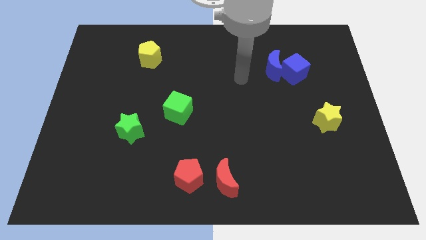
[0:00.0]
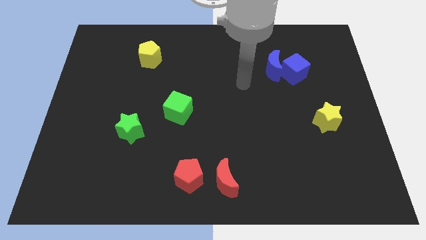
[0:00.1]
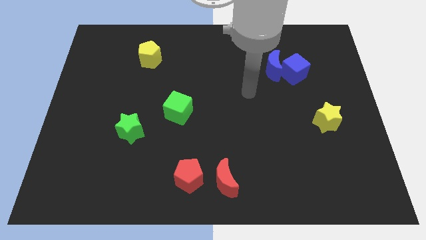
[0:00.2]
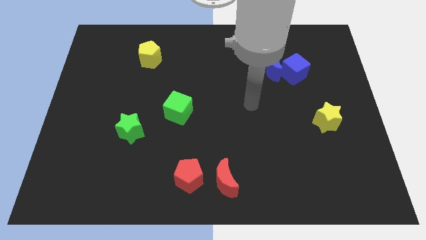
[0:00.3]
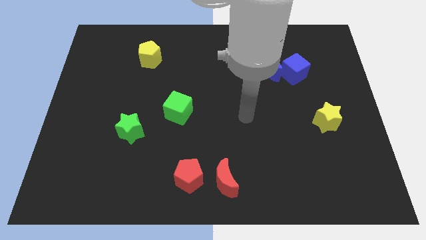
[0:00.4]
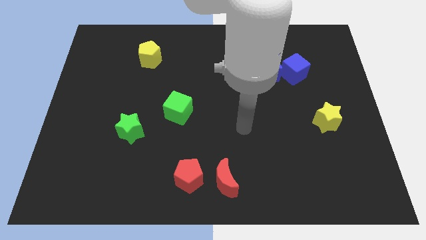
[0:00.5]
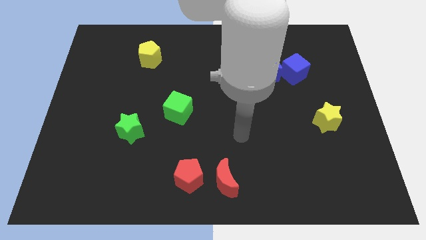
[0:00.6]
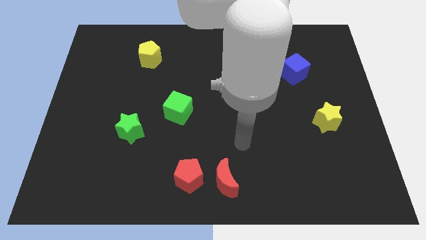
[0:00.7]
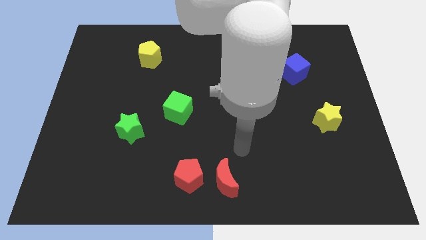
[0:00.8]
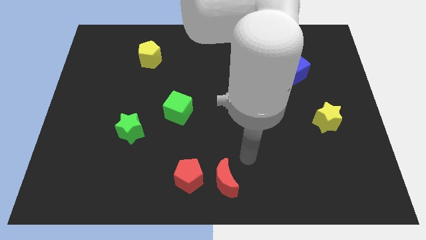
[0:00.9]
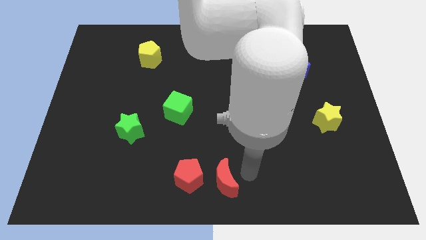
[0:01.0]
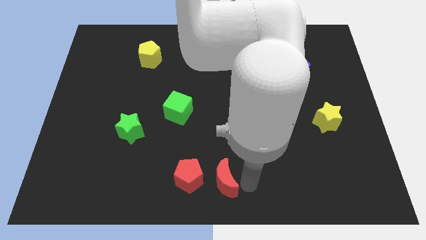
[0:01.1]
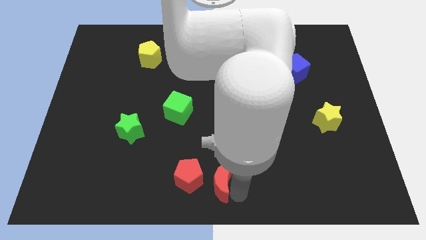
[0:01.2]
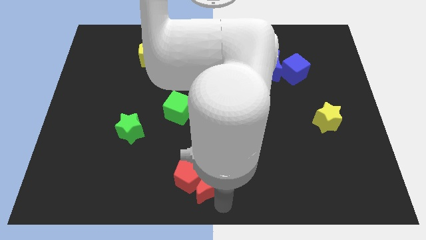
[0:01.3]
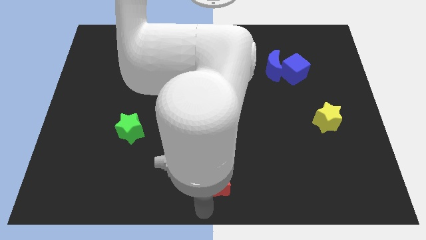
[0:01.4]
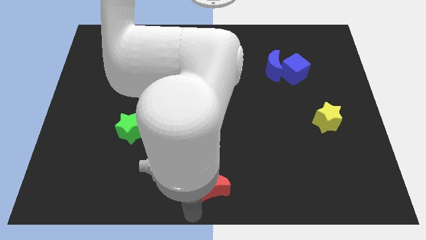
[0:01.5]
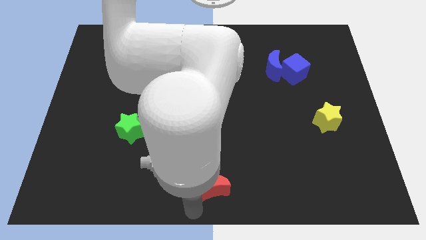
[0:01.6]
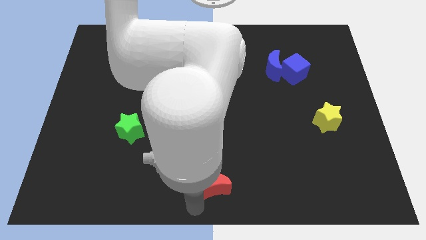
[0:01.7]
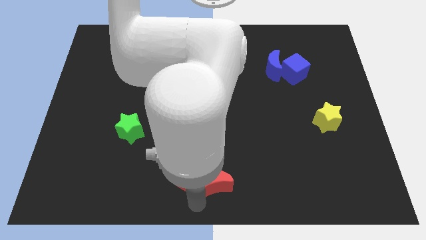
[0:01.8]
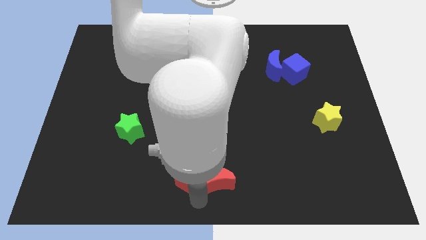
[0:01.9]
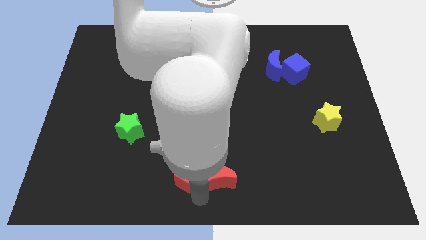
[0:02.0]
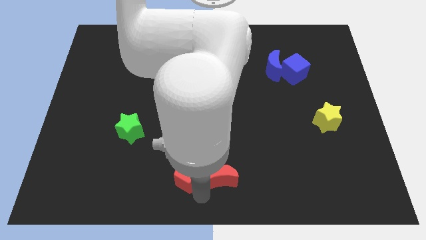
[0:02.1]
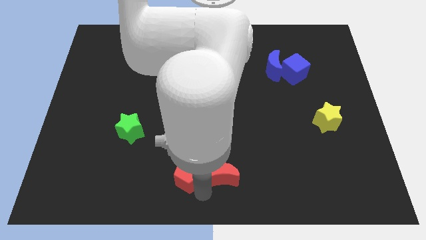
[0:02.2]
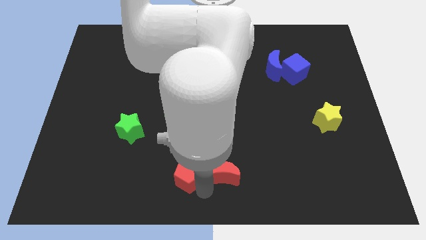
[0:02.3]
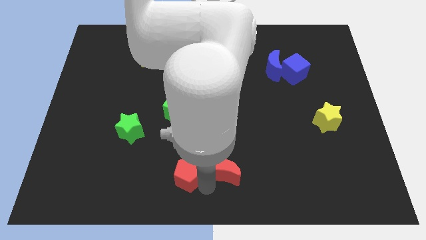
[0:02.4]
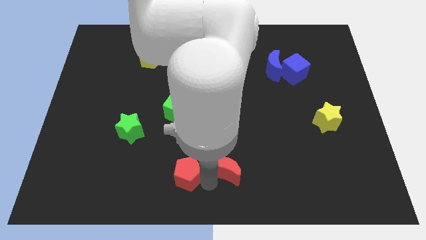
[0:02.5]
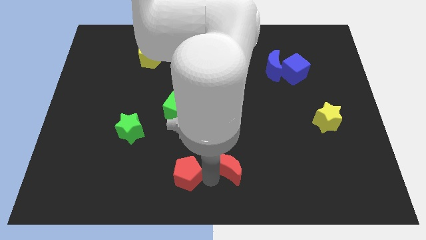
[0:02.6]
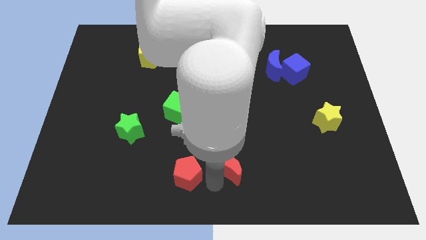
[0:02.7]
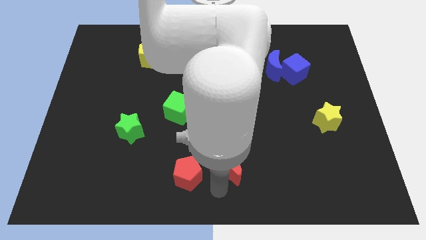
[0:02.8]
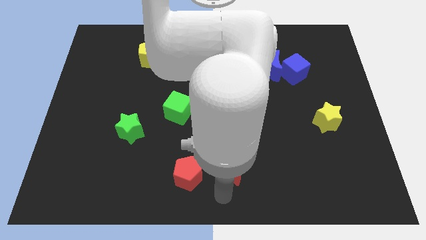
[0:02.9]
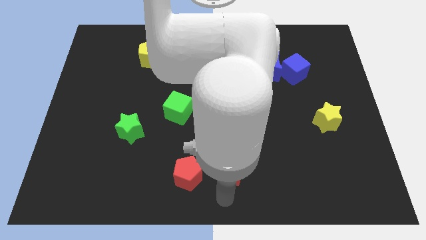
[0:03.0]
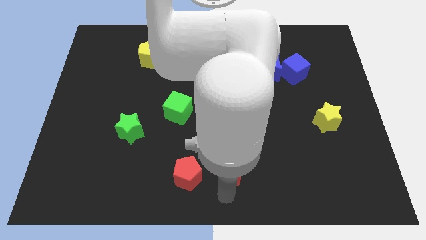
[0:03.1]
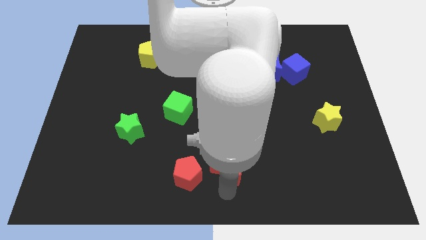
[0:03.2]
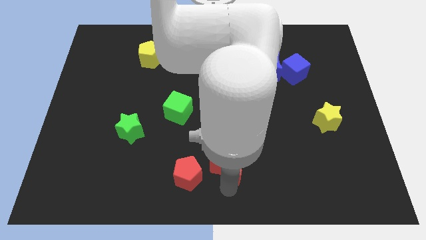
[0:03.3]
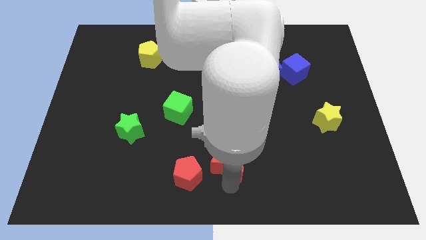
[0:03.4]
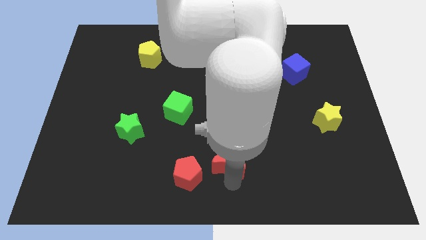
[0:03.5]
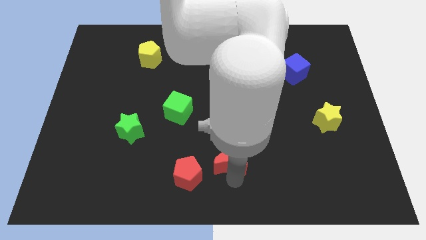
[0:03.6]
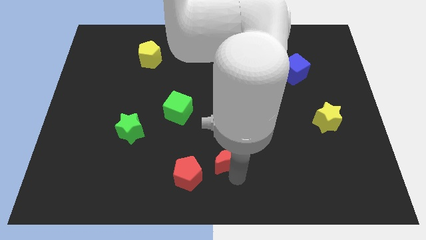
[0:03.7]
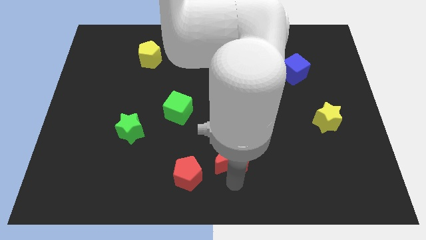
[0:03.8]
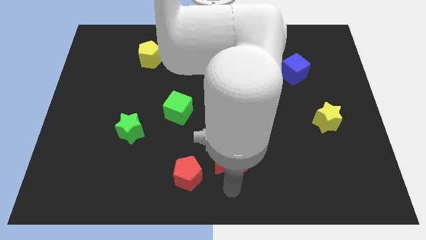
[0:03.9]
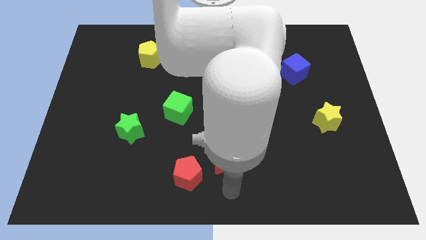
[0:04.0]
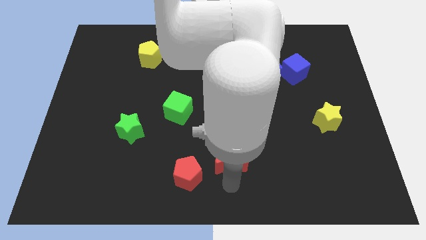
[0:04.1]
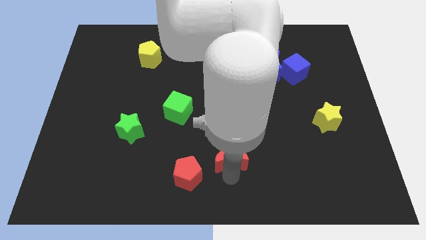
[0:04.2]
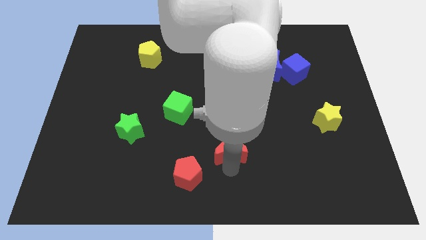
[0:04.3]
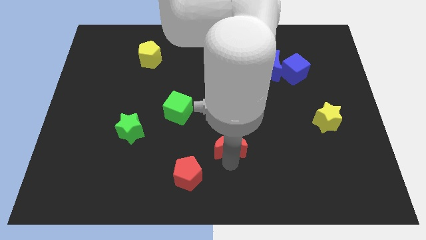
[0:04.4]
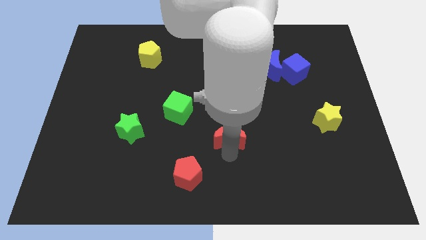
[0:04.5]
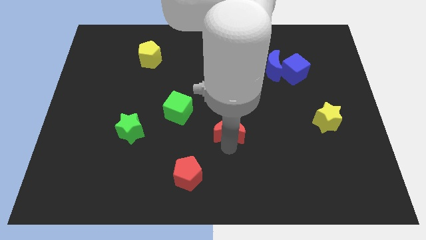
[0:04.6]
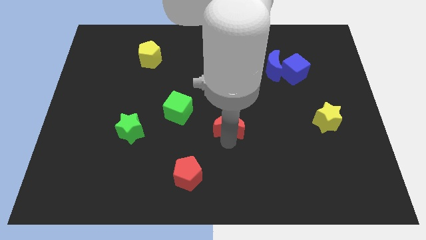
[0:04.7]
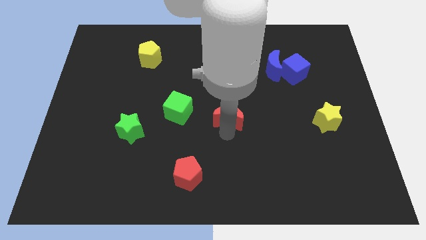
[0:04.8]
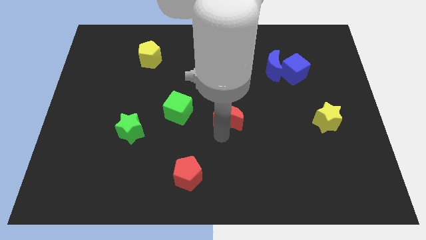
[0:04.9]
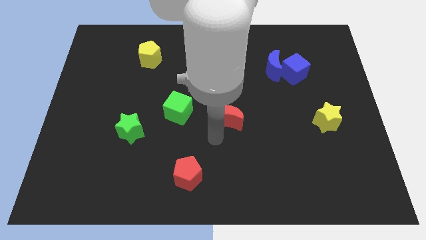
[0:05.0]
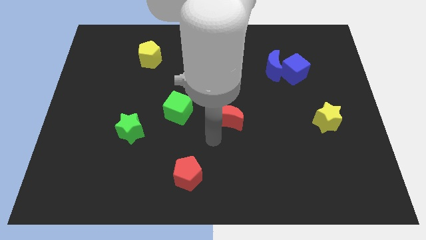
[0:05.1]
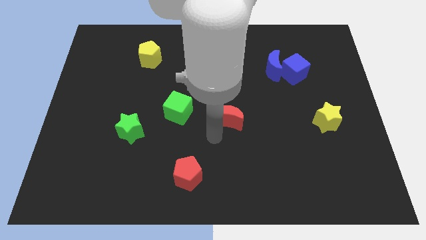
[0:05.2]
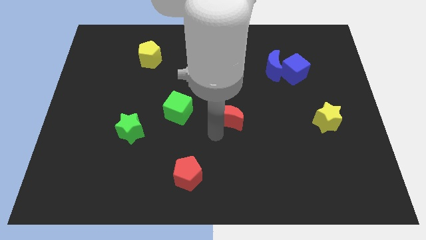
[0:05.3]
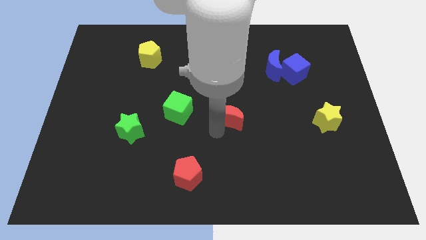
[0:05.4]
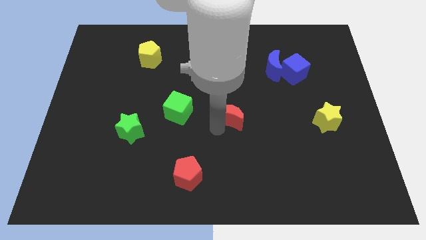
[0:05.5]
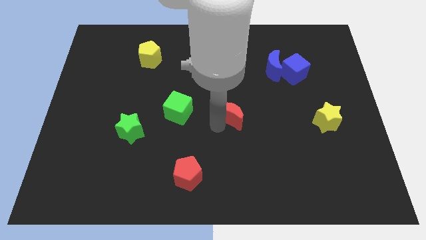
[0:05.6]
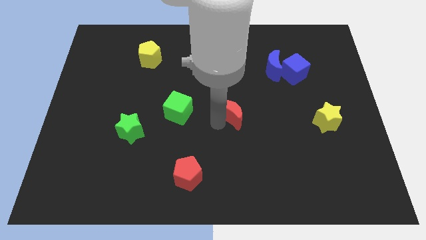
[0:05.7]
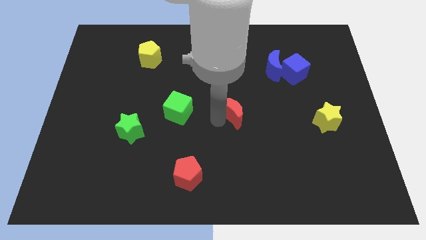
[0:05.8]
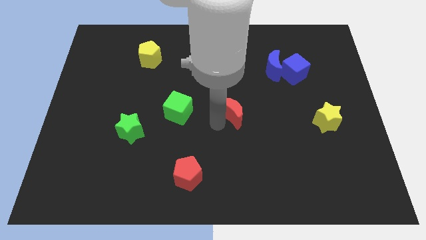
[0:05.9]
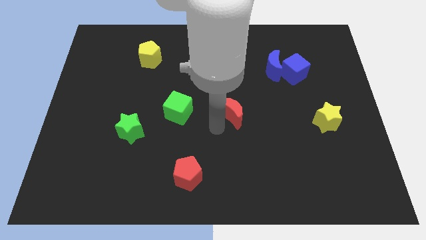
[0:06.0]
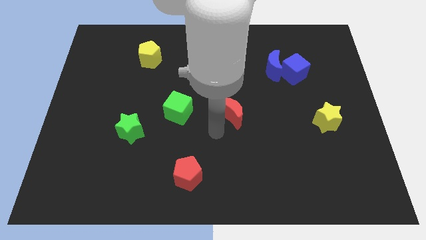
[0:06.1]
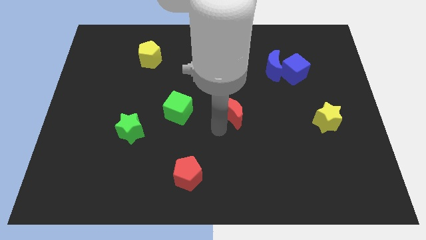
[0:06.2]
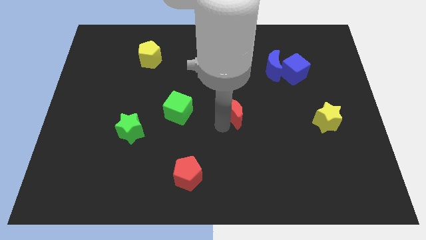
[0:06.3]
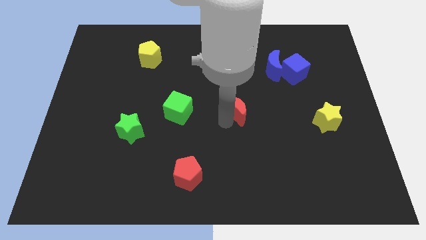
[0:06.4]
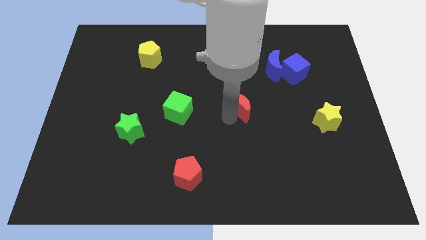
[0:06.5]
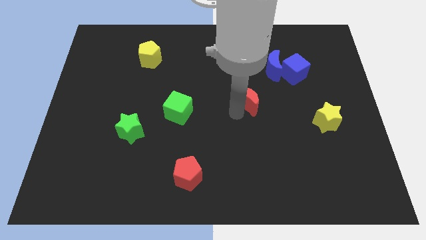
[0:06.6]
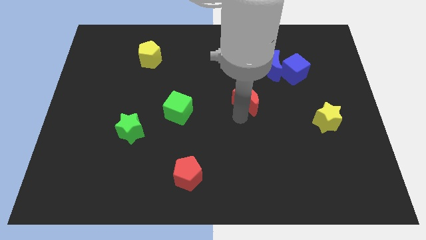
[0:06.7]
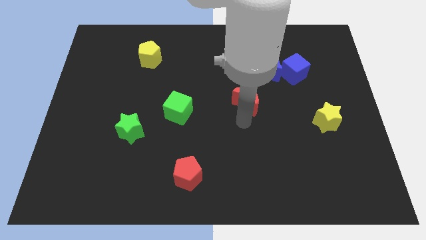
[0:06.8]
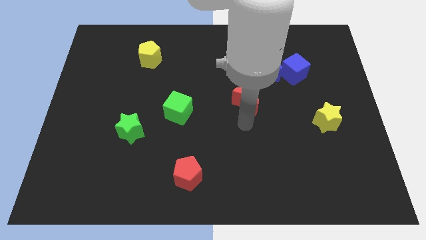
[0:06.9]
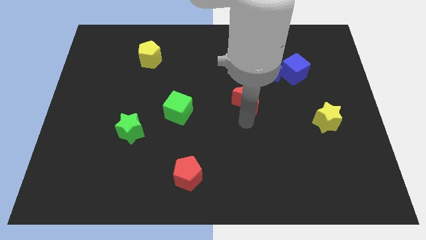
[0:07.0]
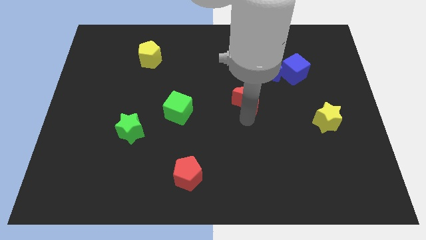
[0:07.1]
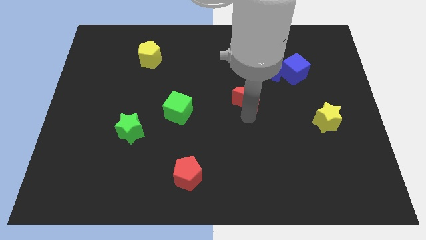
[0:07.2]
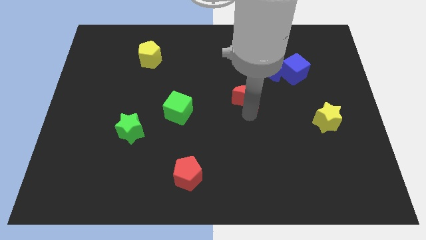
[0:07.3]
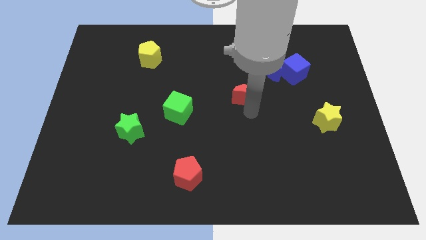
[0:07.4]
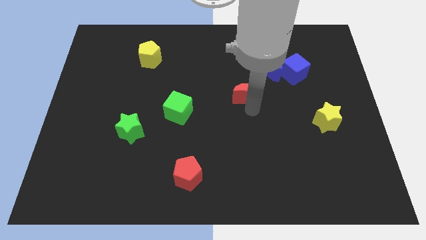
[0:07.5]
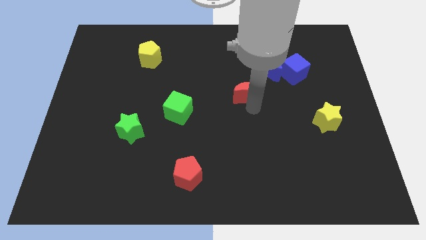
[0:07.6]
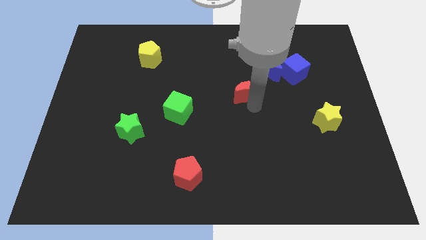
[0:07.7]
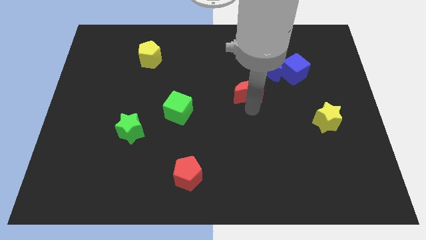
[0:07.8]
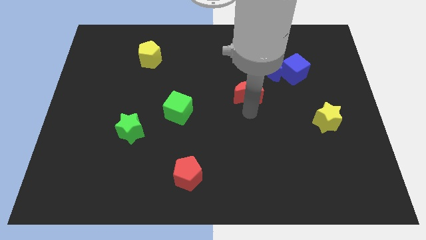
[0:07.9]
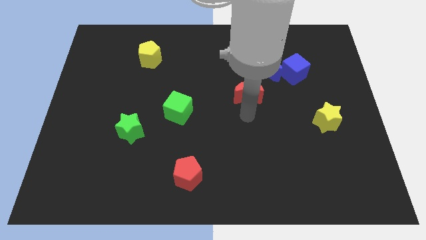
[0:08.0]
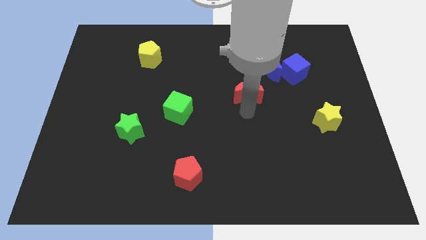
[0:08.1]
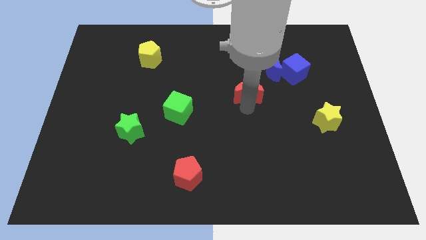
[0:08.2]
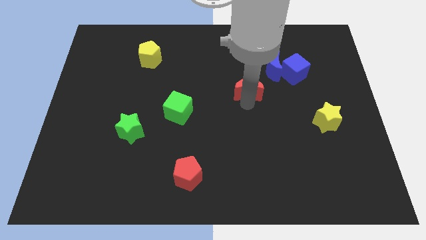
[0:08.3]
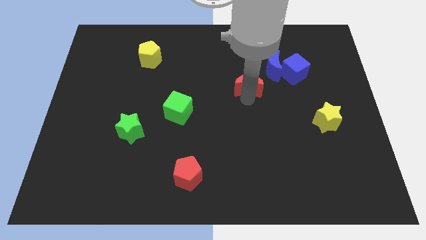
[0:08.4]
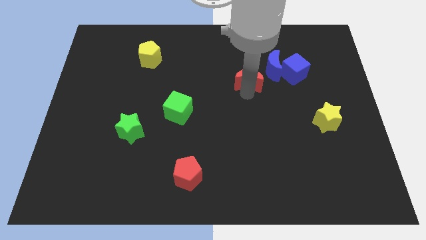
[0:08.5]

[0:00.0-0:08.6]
move the red moon left of the blue cube
